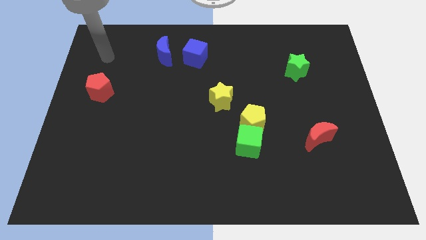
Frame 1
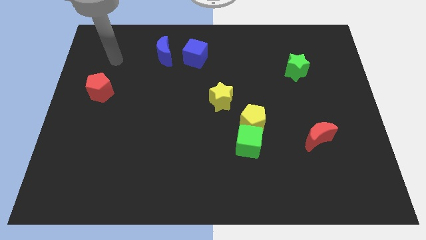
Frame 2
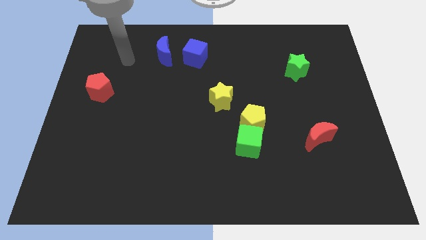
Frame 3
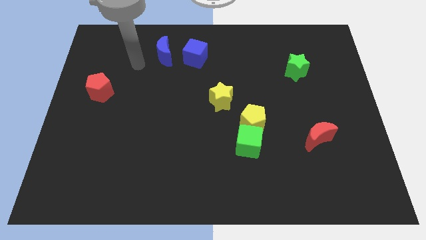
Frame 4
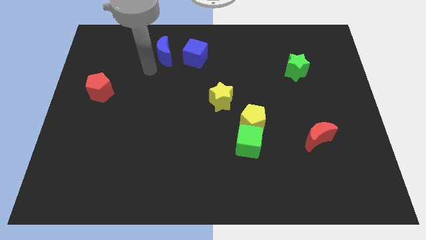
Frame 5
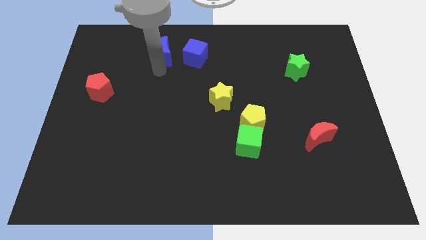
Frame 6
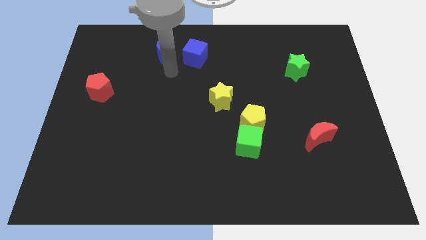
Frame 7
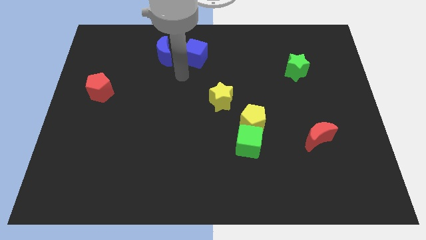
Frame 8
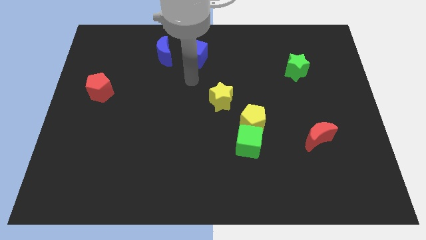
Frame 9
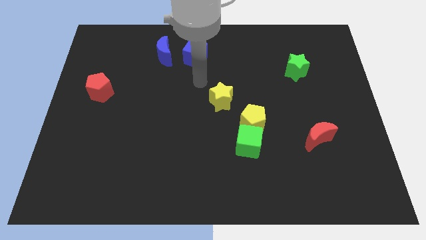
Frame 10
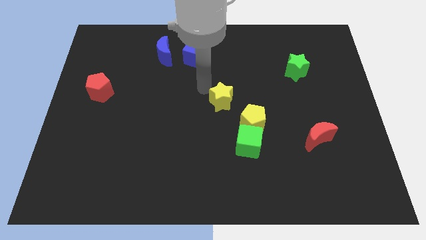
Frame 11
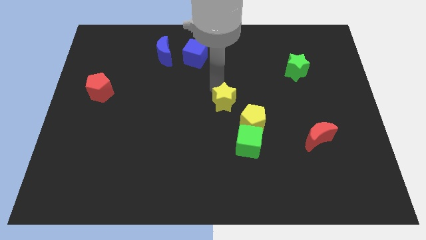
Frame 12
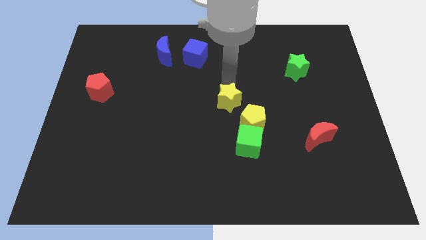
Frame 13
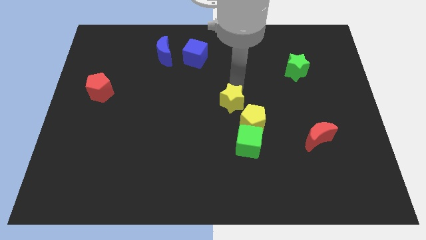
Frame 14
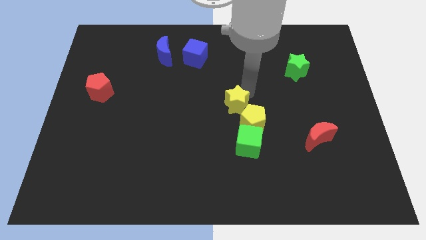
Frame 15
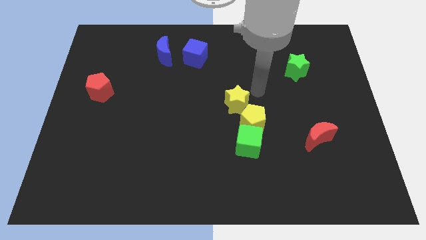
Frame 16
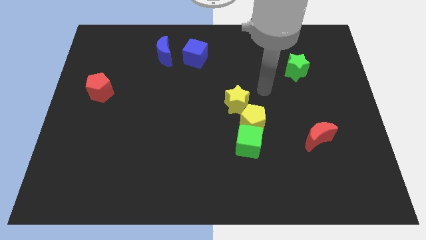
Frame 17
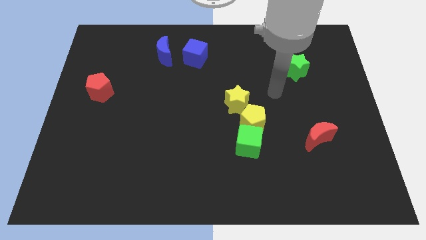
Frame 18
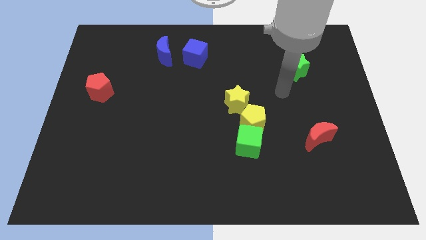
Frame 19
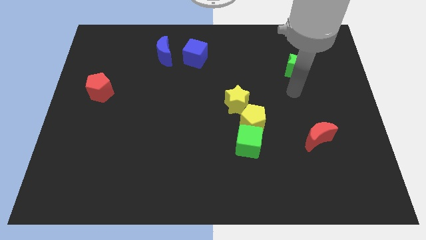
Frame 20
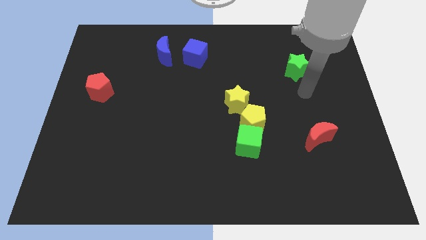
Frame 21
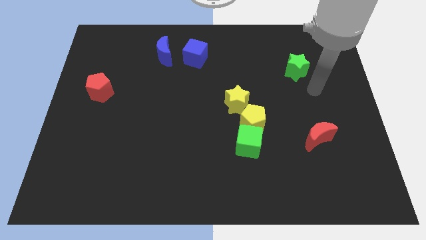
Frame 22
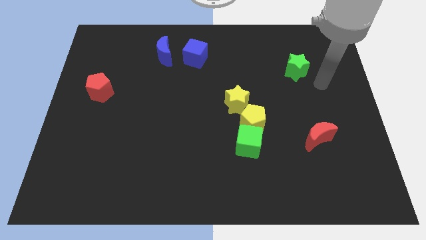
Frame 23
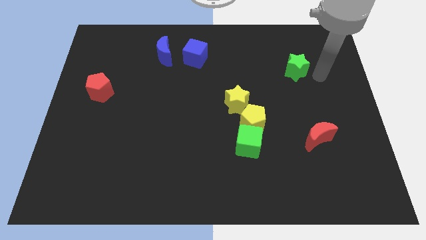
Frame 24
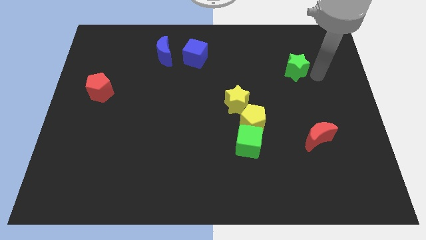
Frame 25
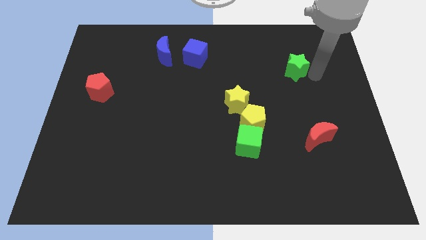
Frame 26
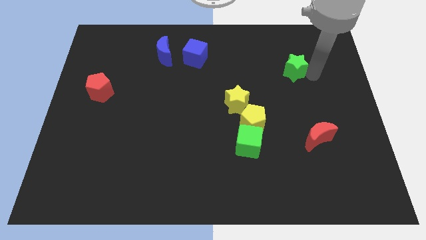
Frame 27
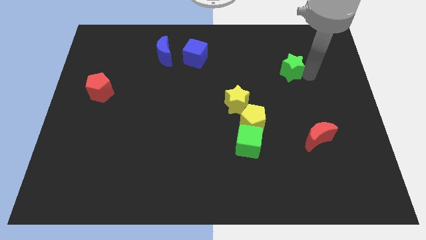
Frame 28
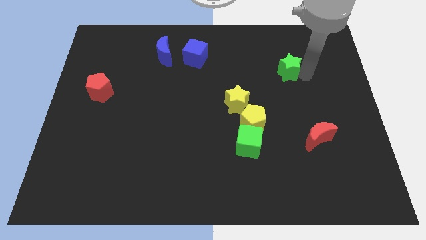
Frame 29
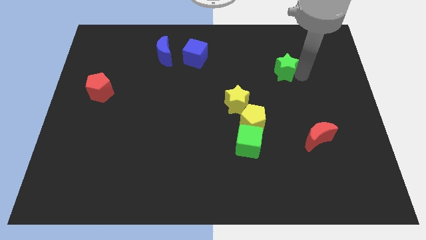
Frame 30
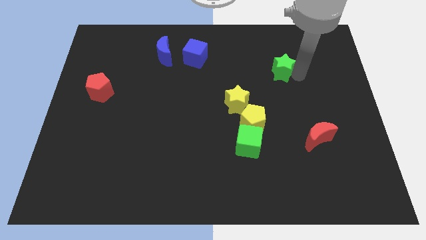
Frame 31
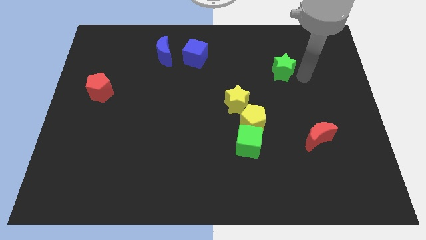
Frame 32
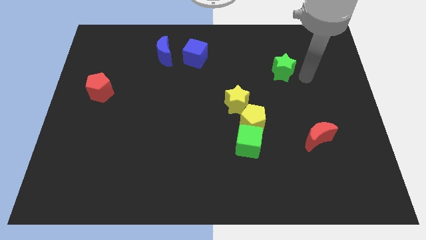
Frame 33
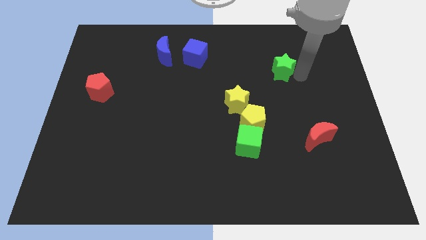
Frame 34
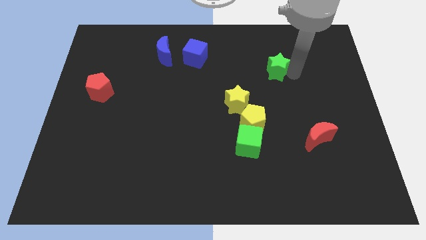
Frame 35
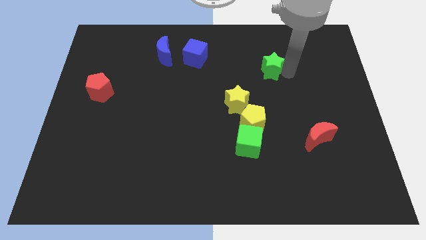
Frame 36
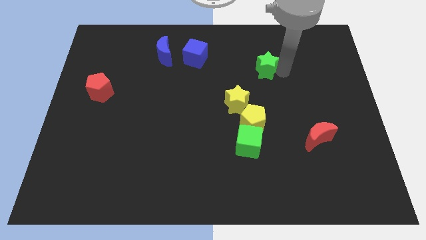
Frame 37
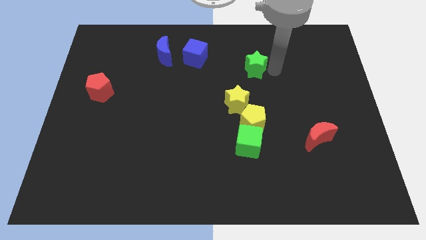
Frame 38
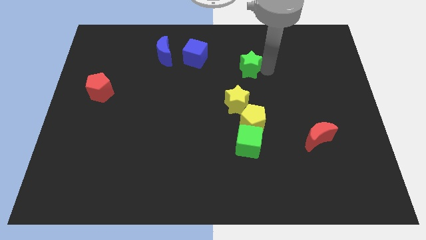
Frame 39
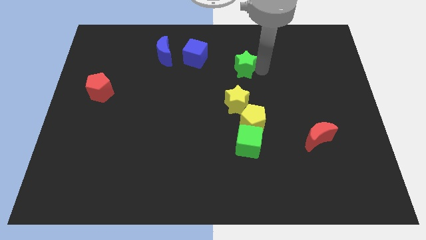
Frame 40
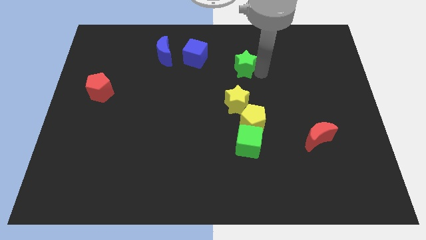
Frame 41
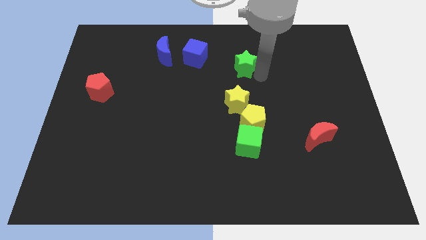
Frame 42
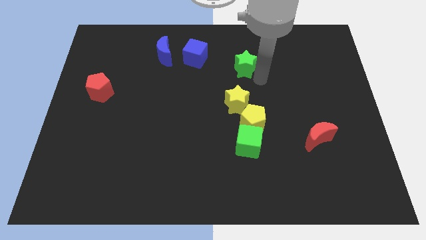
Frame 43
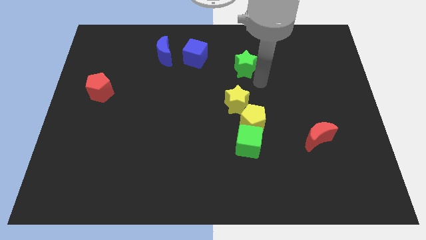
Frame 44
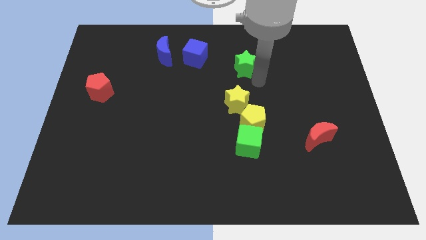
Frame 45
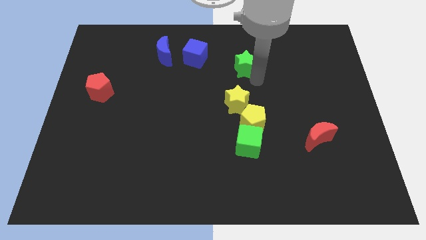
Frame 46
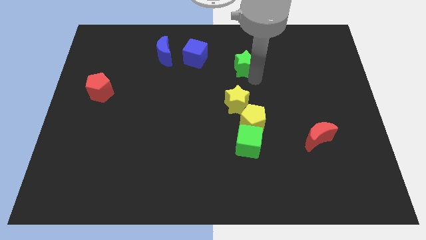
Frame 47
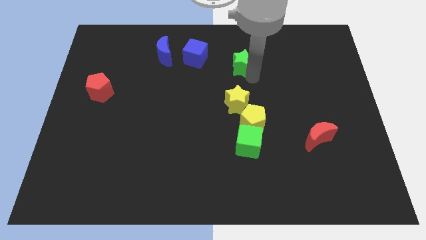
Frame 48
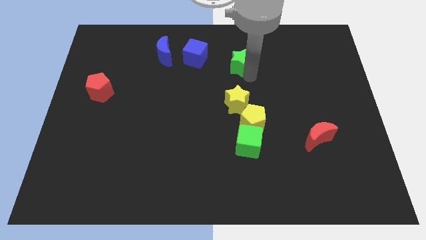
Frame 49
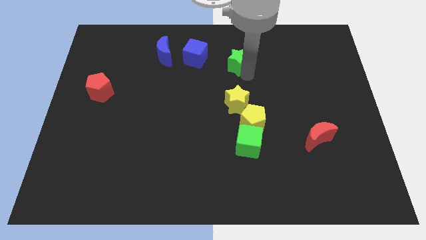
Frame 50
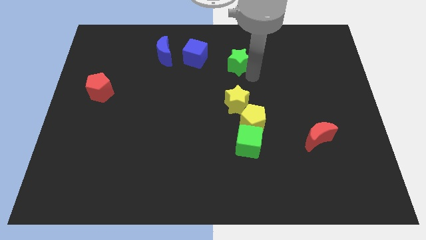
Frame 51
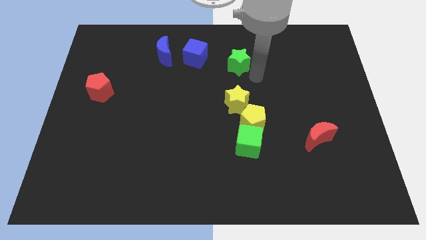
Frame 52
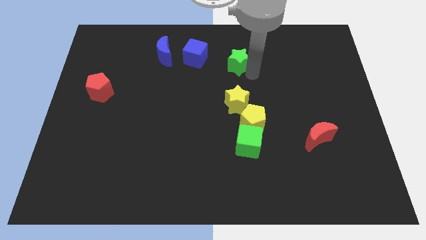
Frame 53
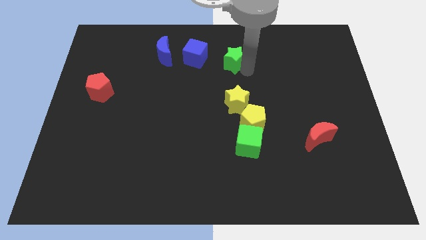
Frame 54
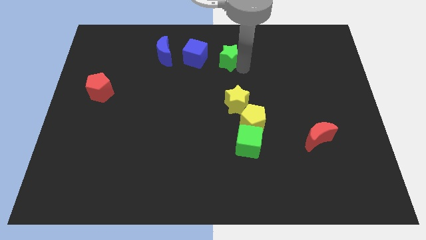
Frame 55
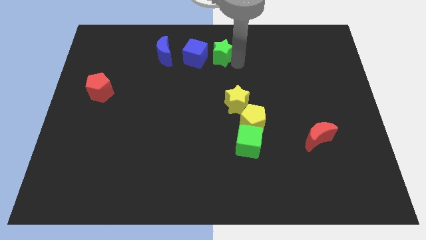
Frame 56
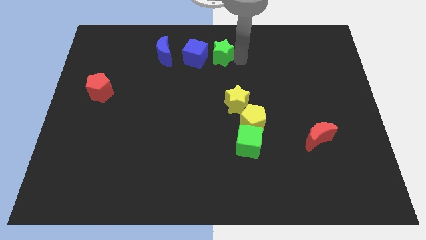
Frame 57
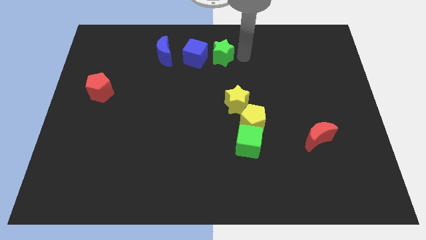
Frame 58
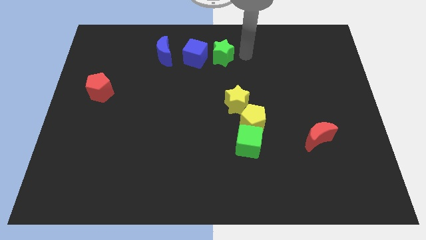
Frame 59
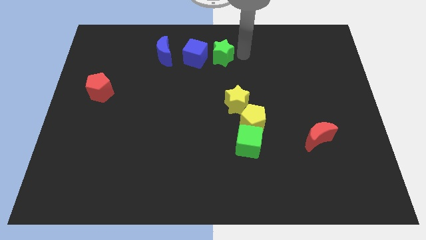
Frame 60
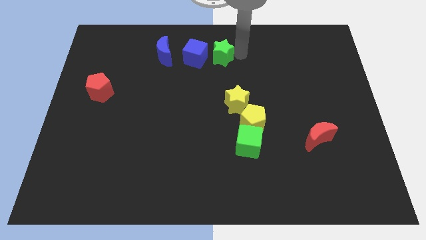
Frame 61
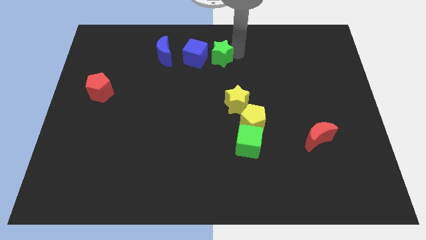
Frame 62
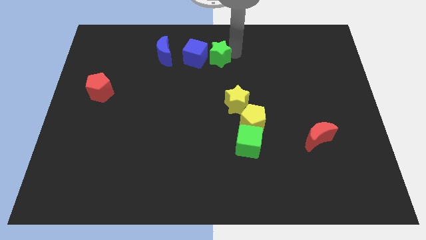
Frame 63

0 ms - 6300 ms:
slide the green star next to the blue cube
